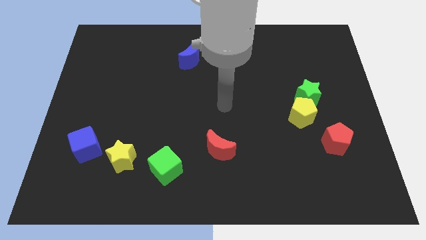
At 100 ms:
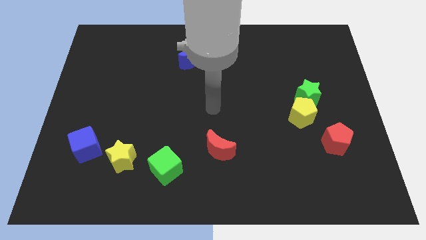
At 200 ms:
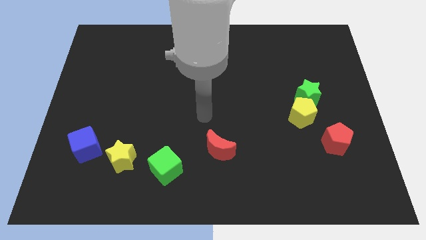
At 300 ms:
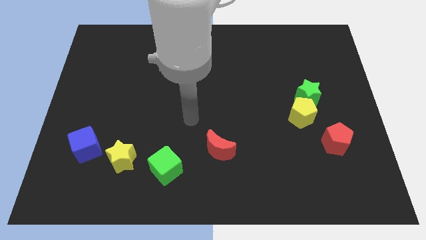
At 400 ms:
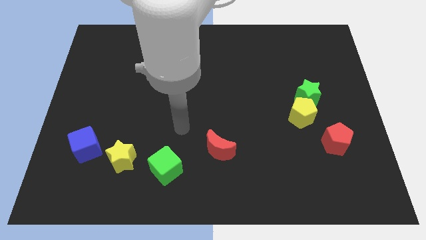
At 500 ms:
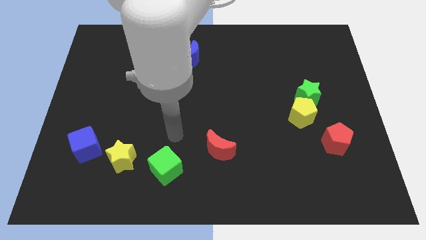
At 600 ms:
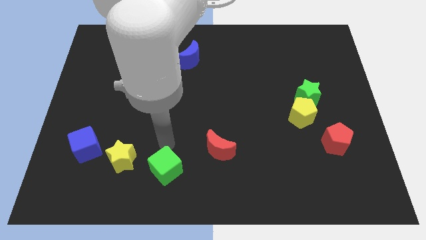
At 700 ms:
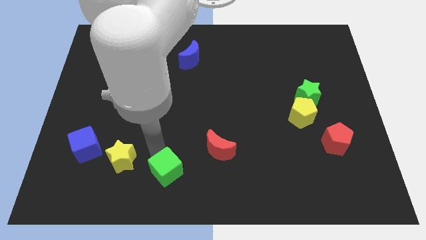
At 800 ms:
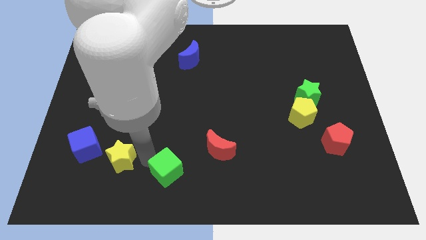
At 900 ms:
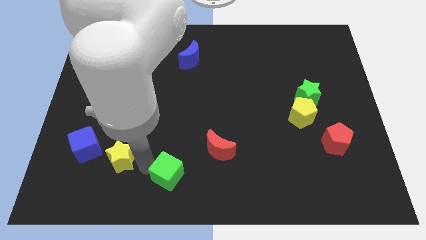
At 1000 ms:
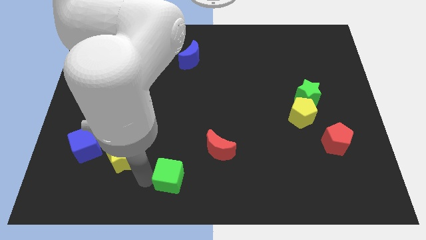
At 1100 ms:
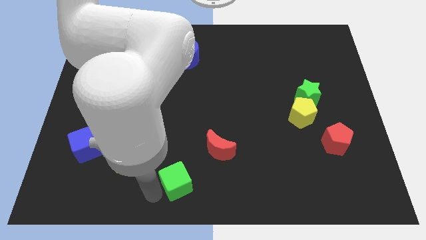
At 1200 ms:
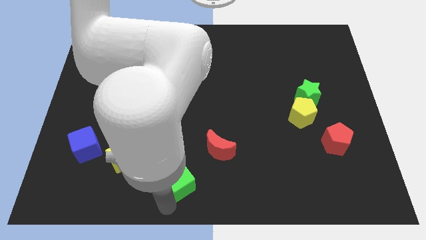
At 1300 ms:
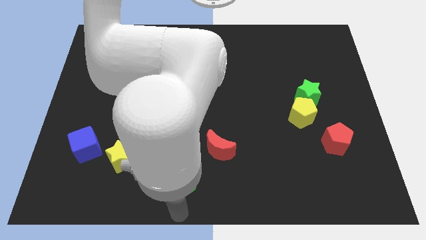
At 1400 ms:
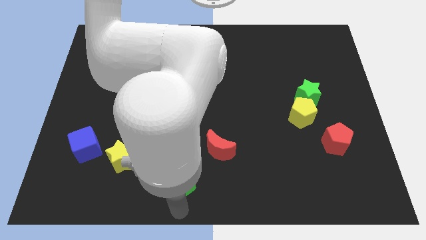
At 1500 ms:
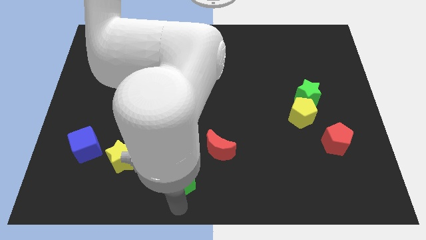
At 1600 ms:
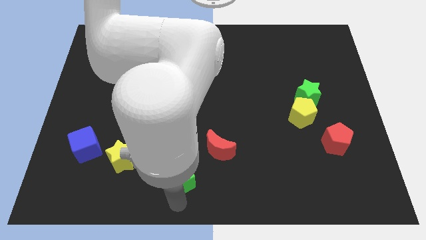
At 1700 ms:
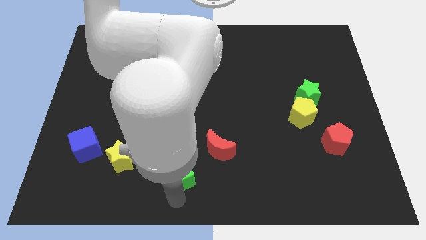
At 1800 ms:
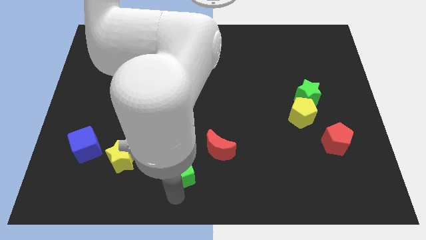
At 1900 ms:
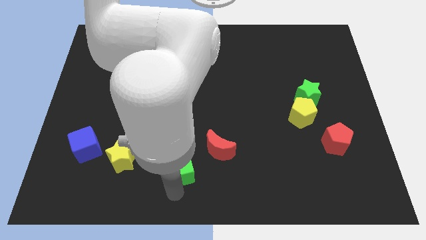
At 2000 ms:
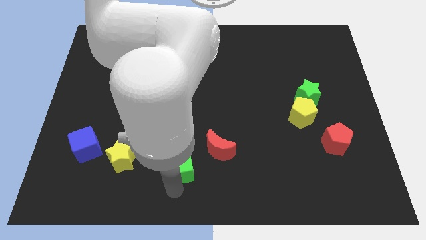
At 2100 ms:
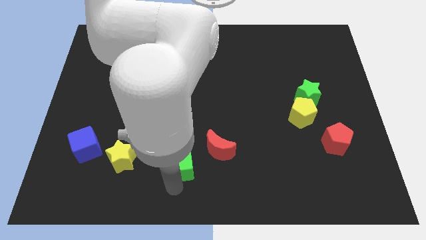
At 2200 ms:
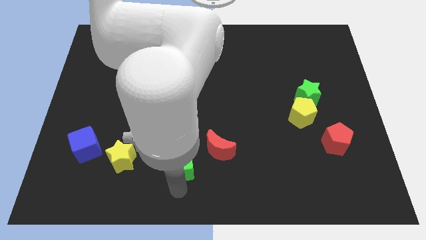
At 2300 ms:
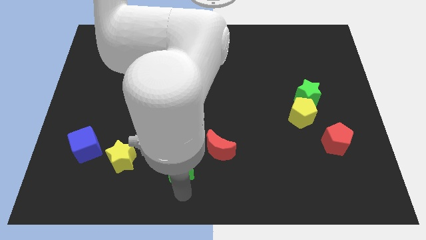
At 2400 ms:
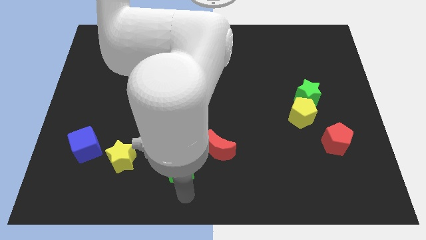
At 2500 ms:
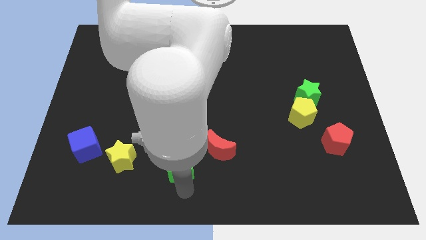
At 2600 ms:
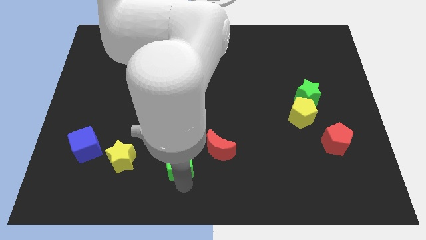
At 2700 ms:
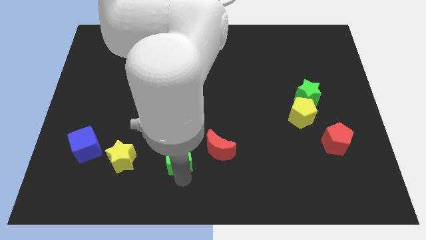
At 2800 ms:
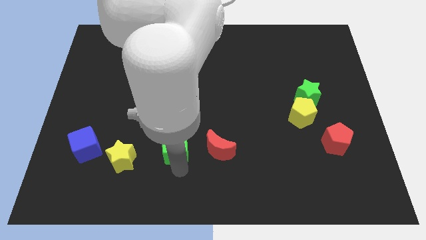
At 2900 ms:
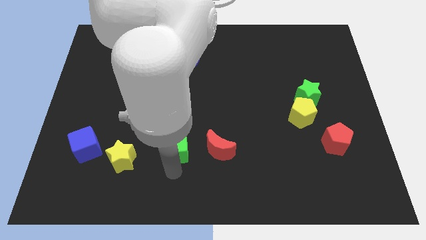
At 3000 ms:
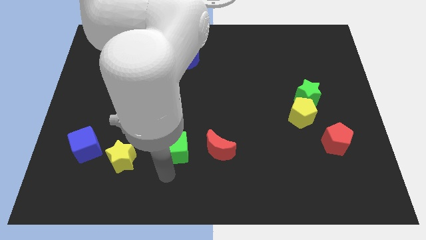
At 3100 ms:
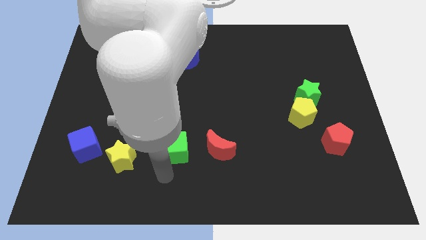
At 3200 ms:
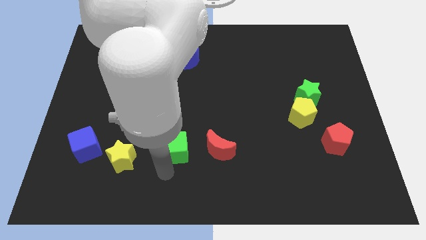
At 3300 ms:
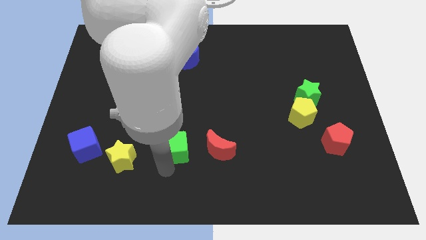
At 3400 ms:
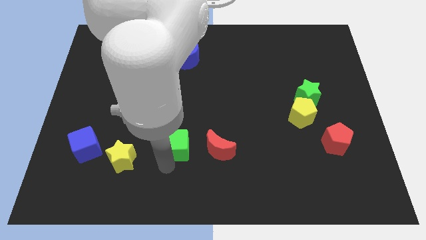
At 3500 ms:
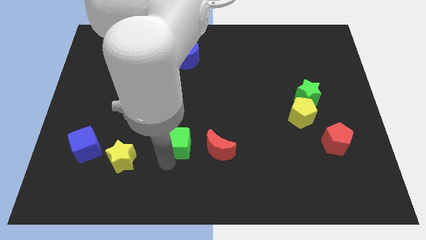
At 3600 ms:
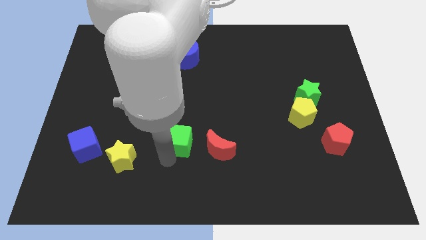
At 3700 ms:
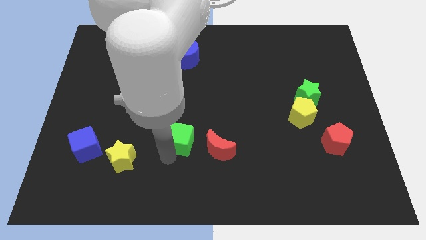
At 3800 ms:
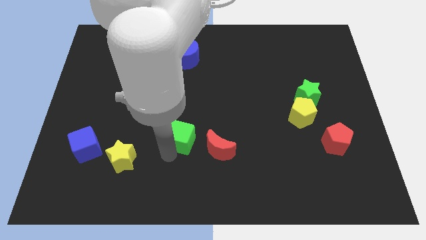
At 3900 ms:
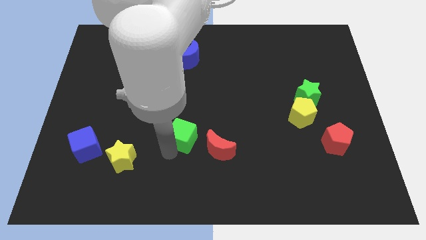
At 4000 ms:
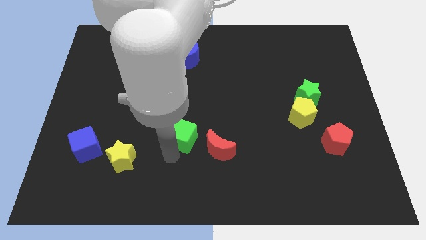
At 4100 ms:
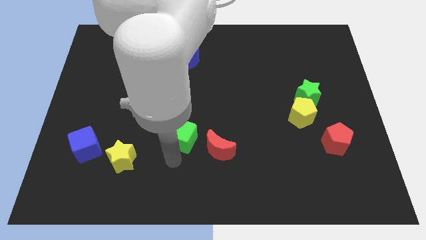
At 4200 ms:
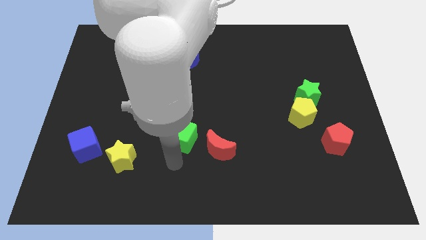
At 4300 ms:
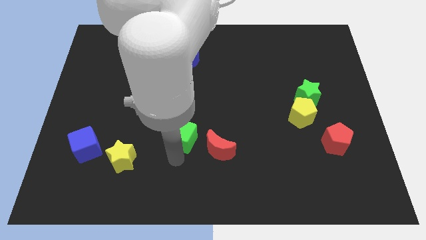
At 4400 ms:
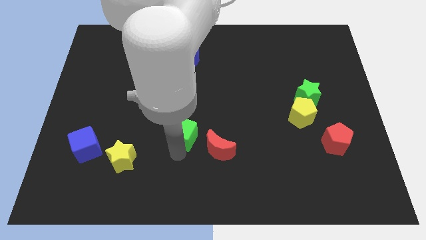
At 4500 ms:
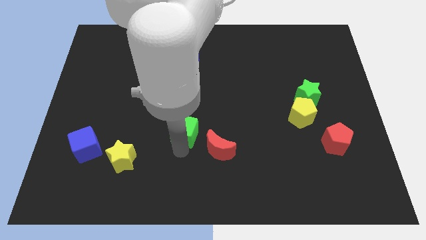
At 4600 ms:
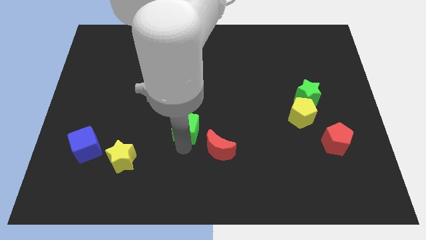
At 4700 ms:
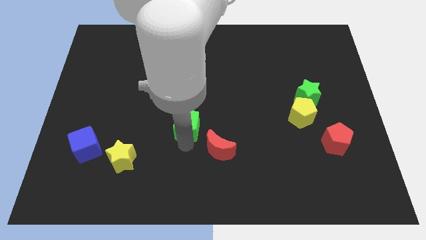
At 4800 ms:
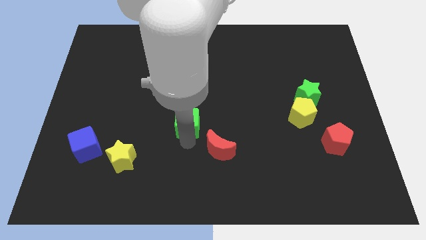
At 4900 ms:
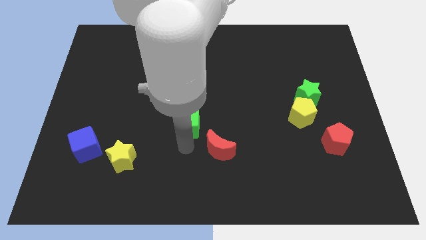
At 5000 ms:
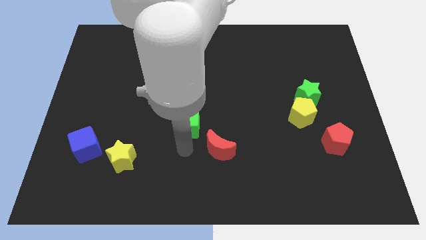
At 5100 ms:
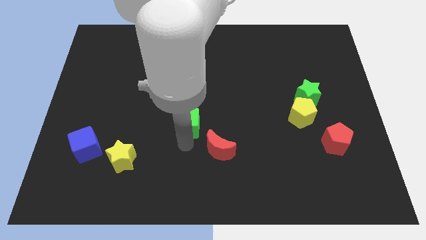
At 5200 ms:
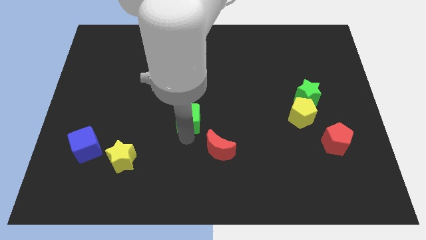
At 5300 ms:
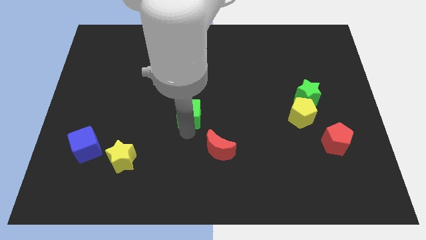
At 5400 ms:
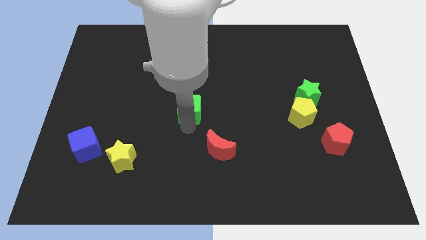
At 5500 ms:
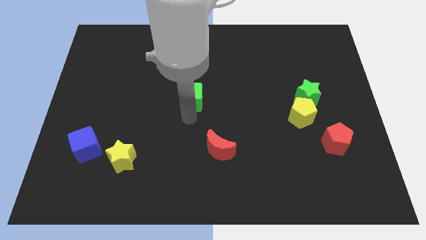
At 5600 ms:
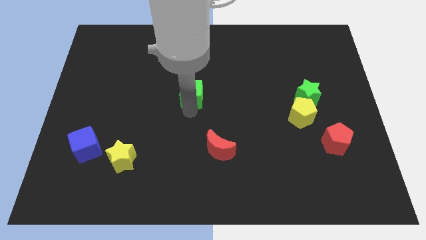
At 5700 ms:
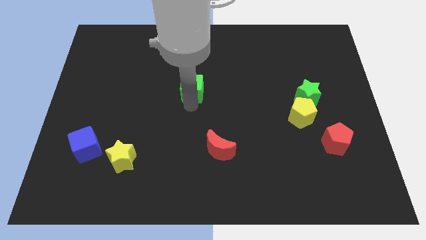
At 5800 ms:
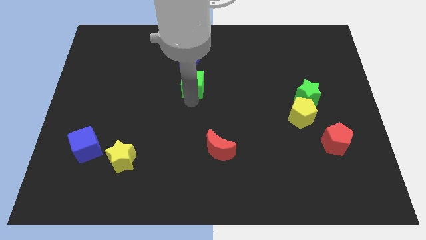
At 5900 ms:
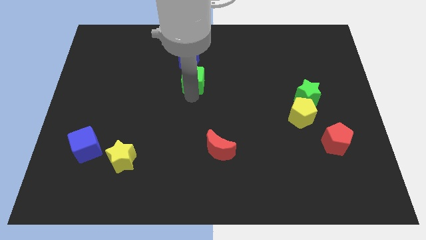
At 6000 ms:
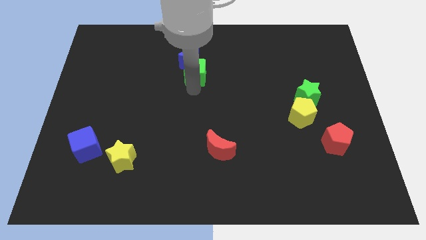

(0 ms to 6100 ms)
move the green cube to the blue moon

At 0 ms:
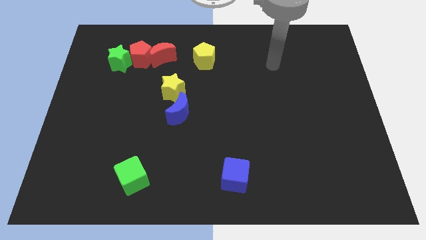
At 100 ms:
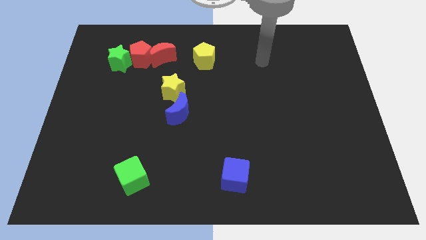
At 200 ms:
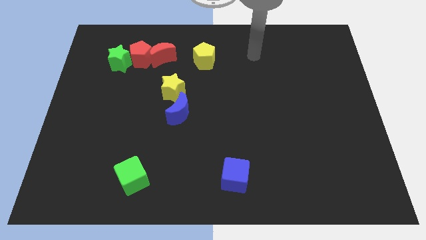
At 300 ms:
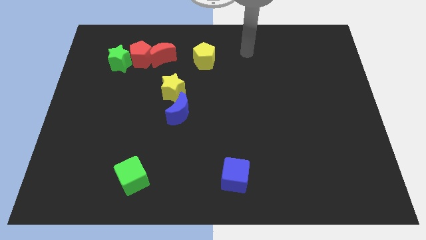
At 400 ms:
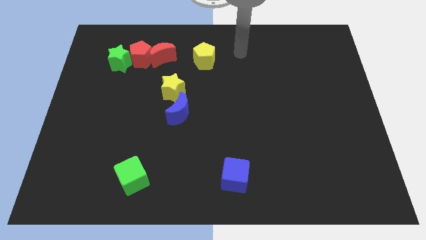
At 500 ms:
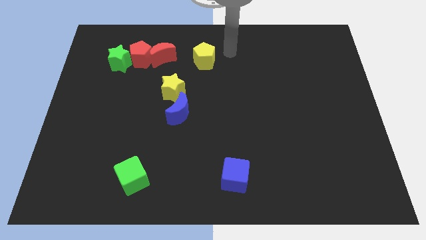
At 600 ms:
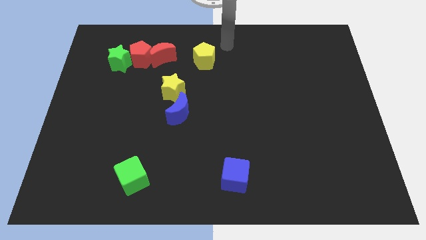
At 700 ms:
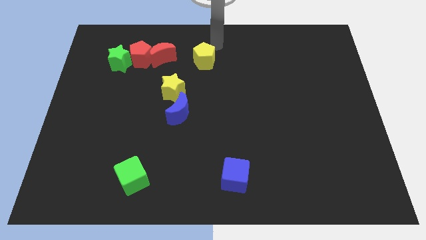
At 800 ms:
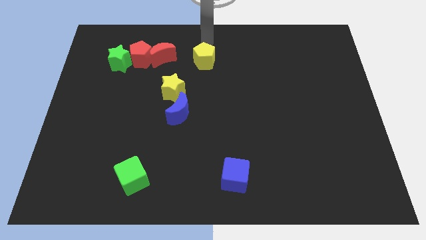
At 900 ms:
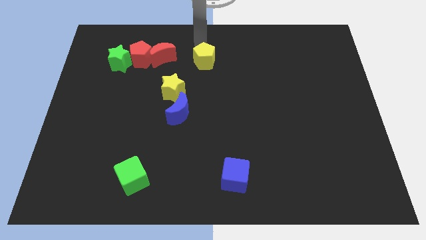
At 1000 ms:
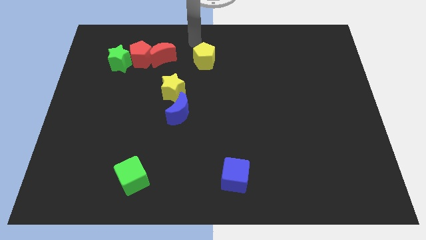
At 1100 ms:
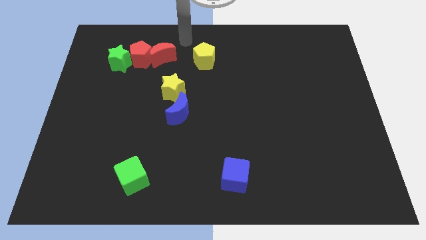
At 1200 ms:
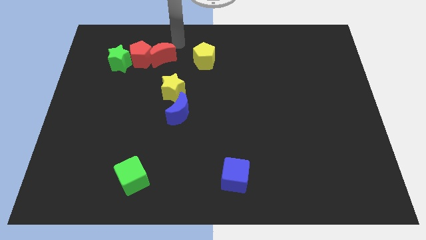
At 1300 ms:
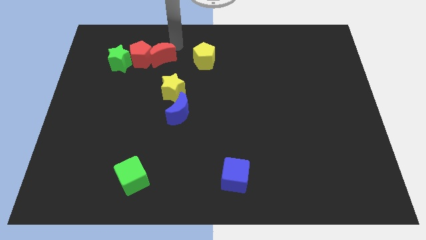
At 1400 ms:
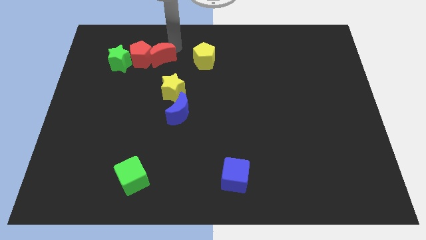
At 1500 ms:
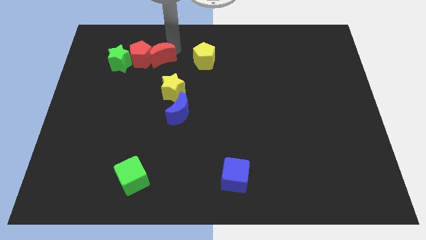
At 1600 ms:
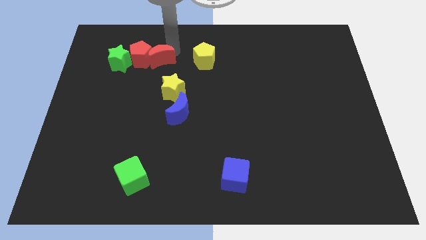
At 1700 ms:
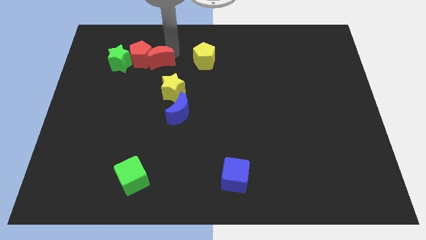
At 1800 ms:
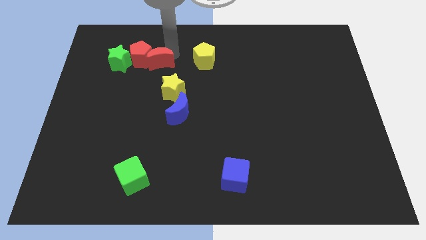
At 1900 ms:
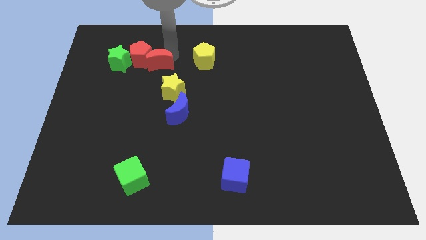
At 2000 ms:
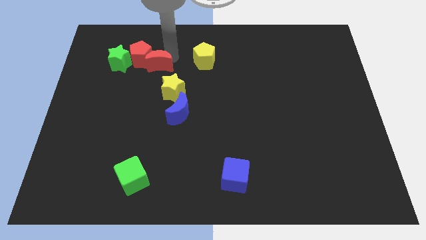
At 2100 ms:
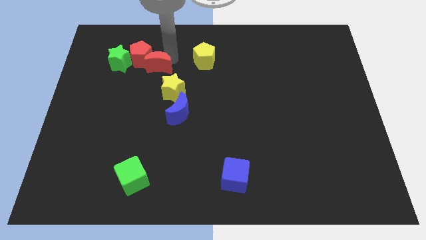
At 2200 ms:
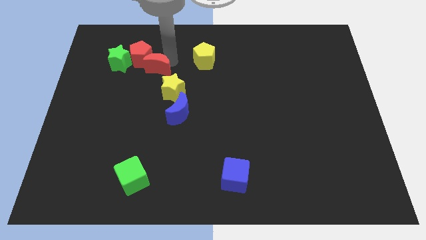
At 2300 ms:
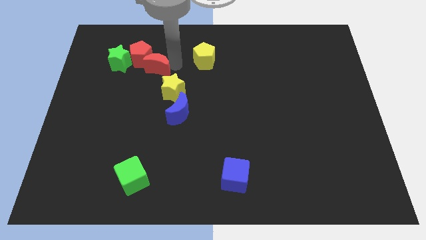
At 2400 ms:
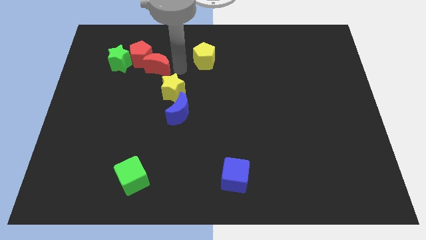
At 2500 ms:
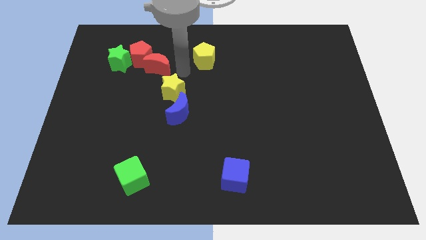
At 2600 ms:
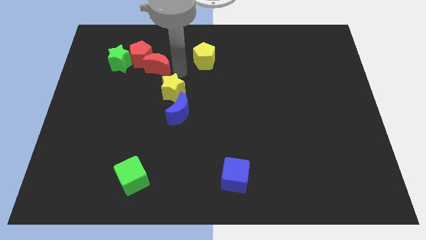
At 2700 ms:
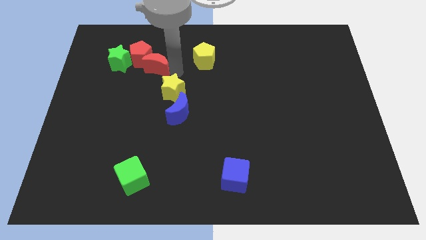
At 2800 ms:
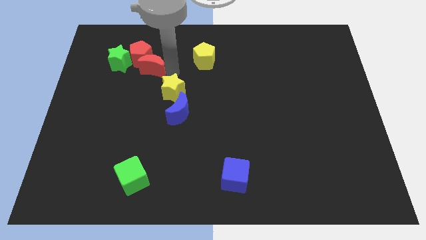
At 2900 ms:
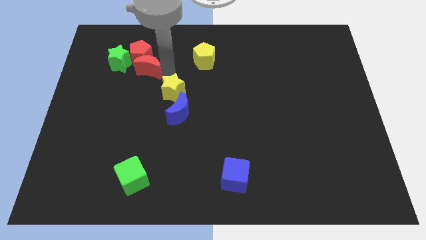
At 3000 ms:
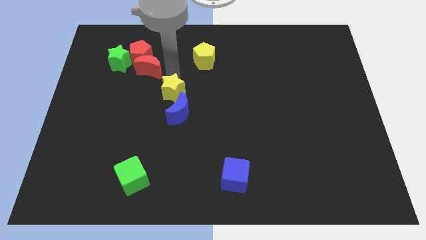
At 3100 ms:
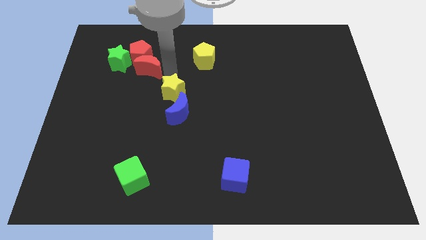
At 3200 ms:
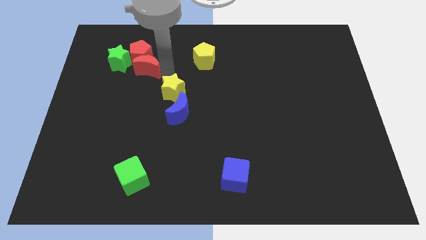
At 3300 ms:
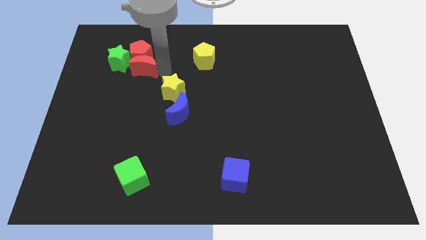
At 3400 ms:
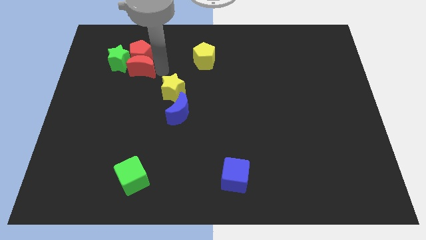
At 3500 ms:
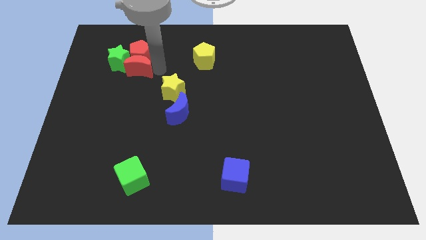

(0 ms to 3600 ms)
move the red moon to the green star
